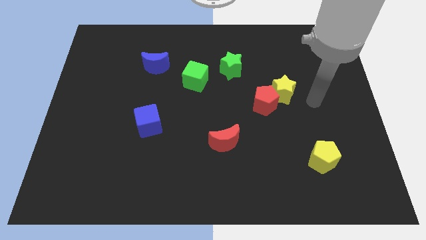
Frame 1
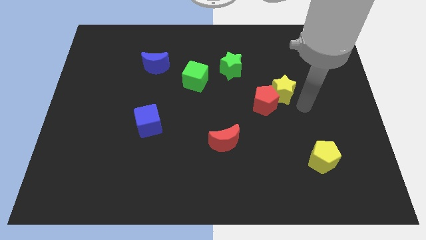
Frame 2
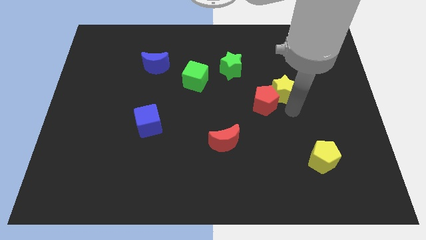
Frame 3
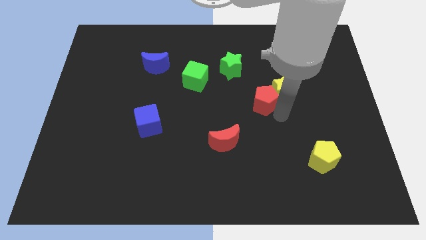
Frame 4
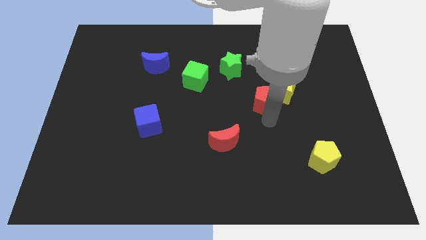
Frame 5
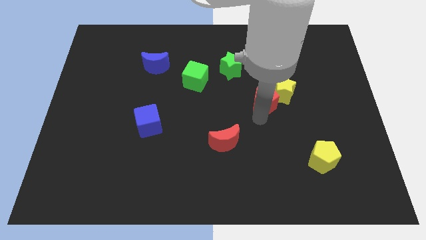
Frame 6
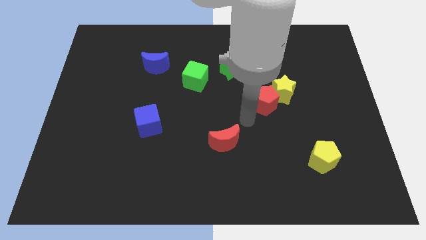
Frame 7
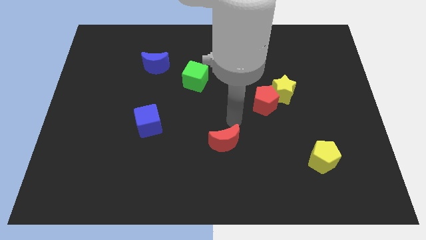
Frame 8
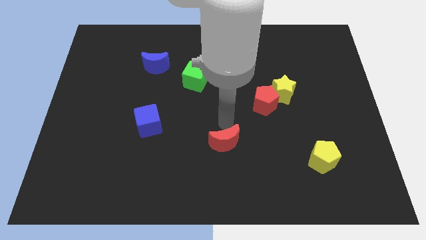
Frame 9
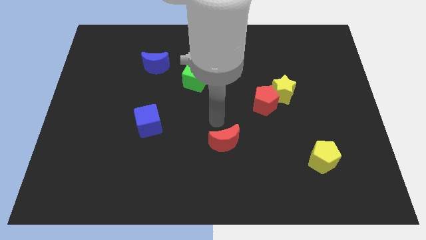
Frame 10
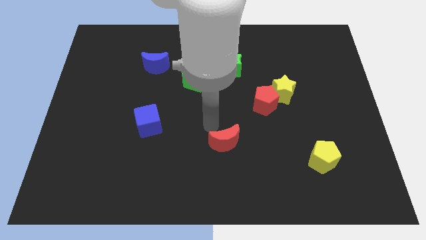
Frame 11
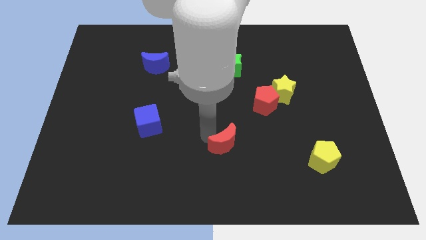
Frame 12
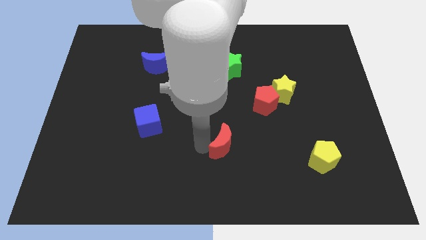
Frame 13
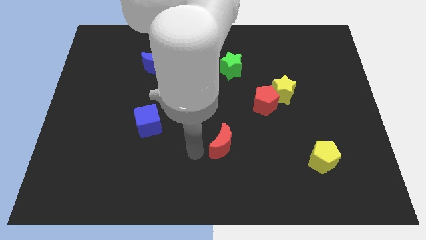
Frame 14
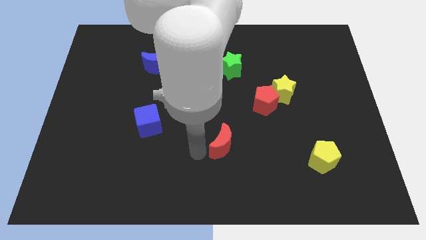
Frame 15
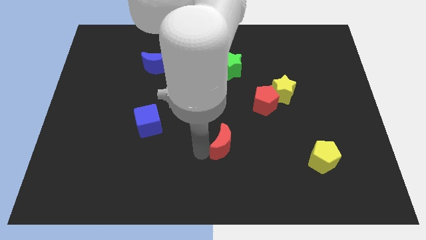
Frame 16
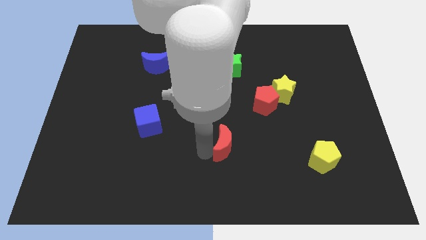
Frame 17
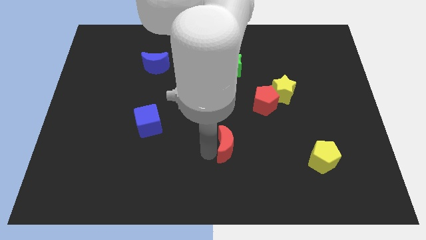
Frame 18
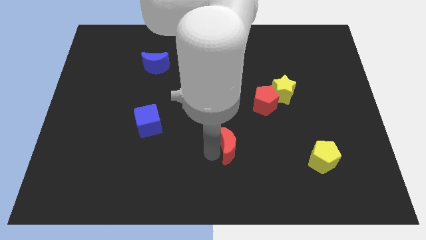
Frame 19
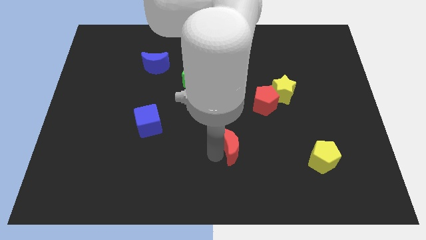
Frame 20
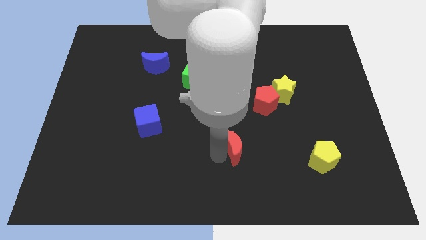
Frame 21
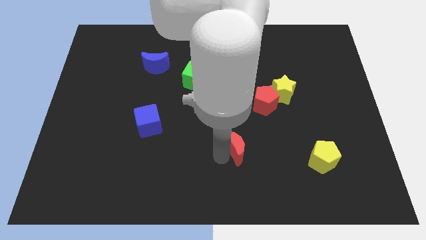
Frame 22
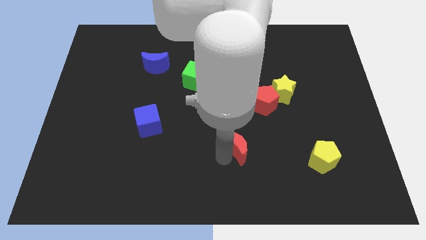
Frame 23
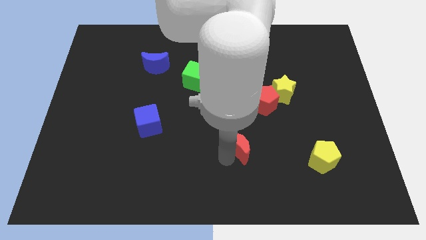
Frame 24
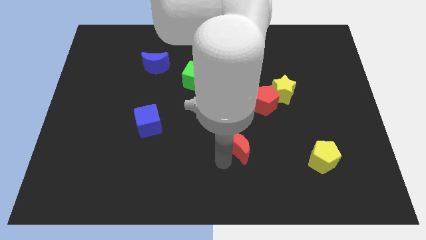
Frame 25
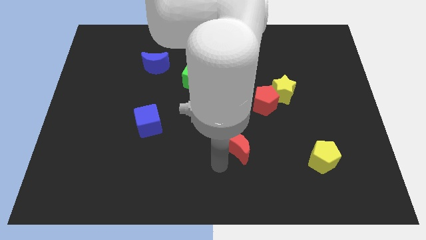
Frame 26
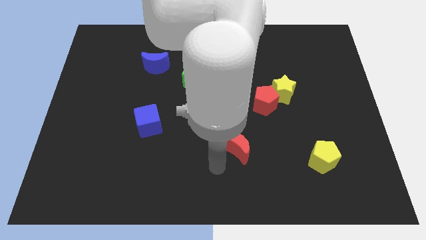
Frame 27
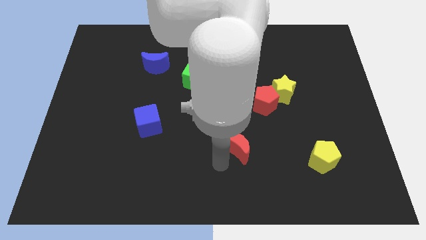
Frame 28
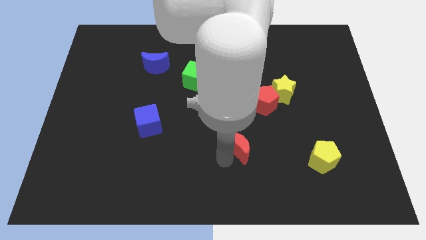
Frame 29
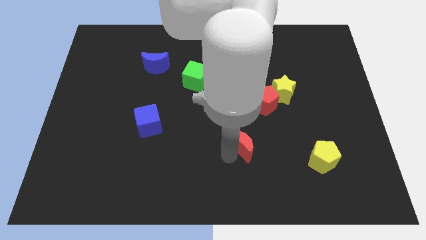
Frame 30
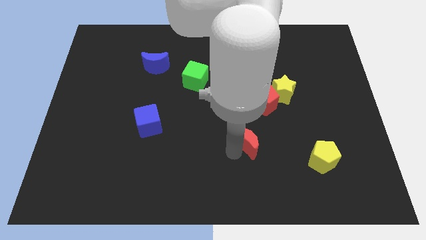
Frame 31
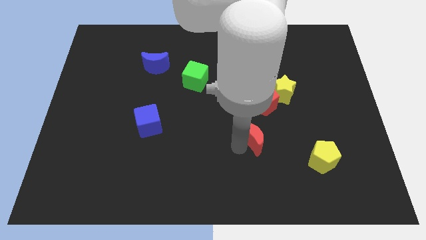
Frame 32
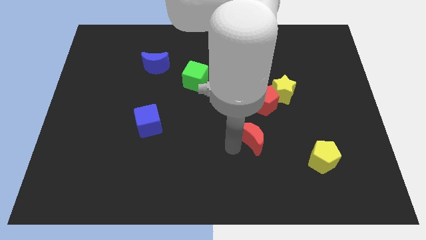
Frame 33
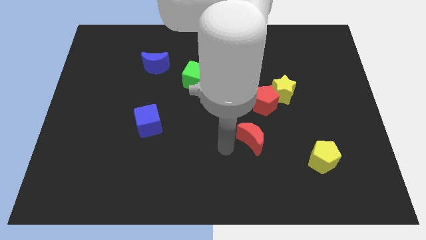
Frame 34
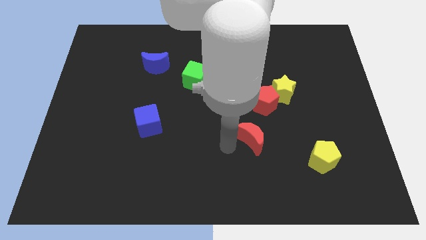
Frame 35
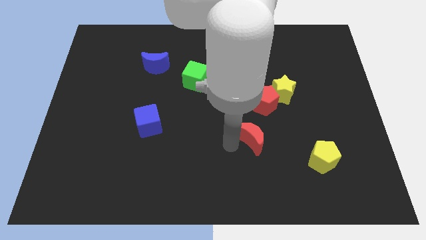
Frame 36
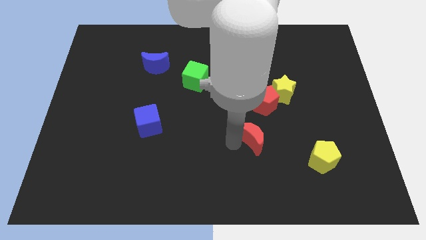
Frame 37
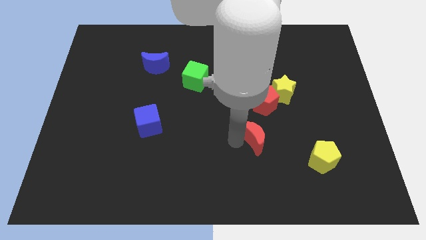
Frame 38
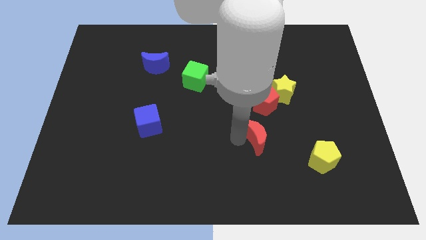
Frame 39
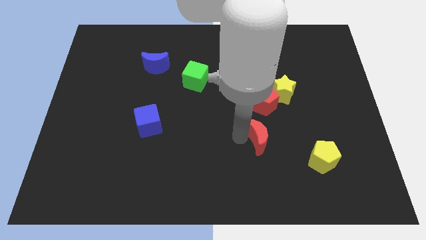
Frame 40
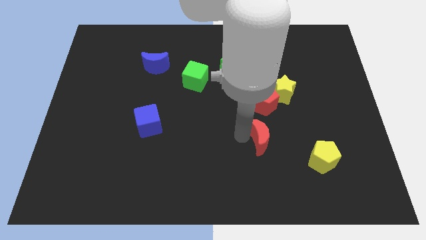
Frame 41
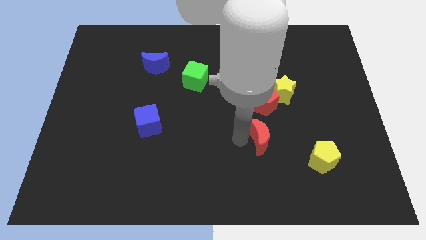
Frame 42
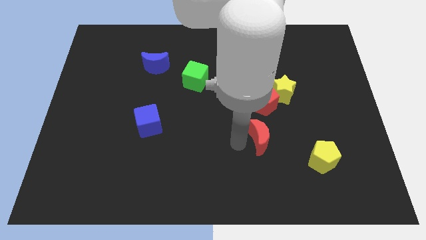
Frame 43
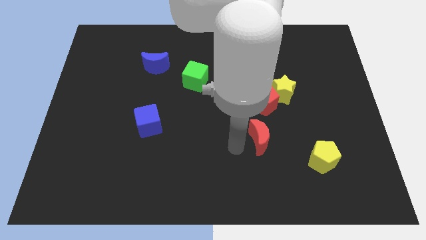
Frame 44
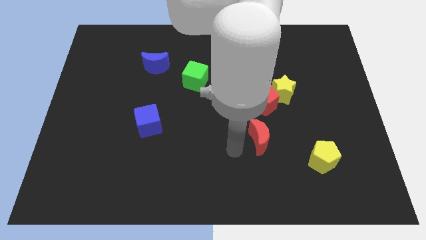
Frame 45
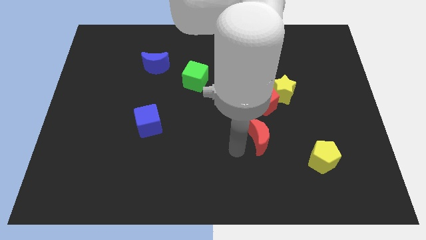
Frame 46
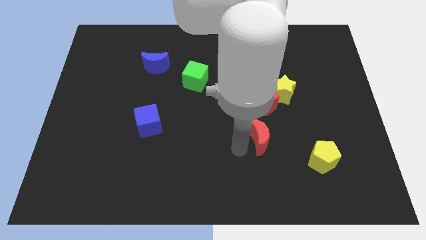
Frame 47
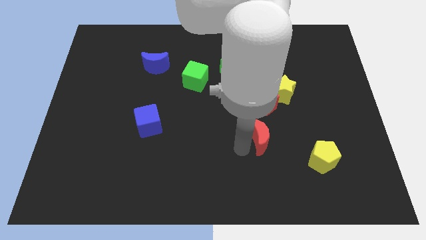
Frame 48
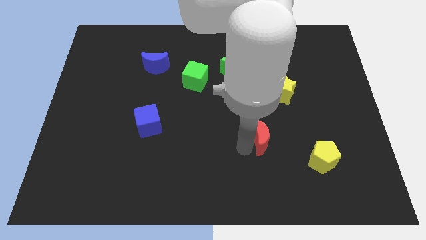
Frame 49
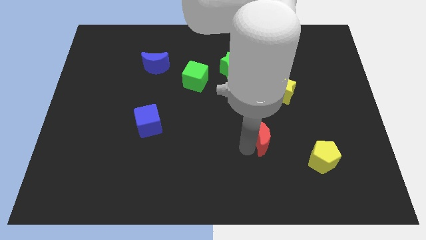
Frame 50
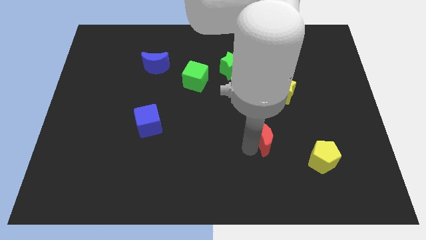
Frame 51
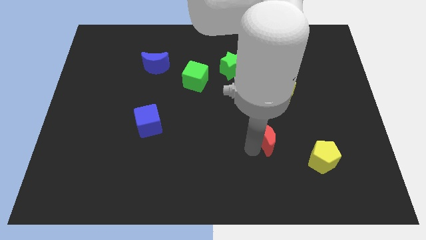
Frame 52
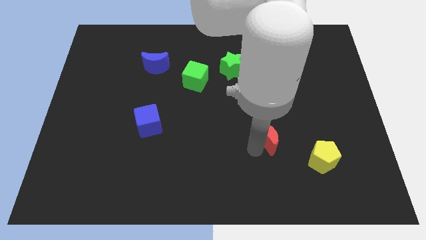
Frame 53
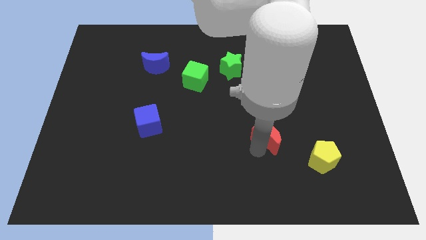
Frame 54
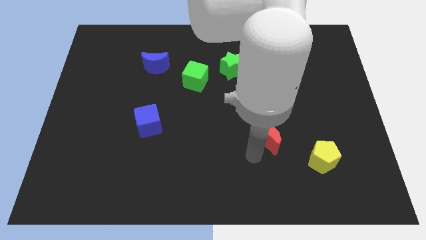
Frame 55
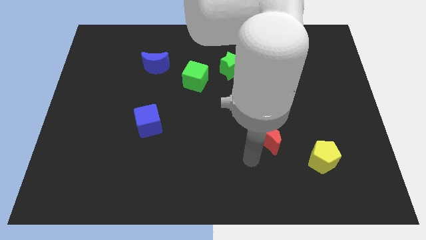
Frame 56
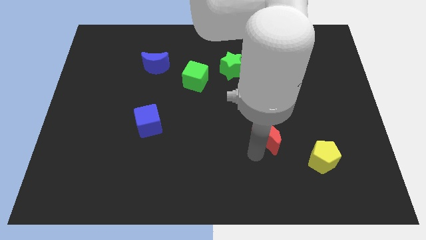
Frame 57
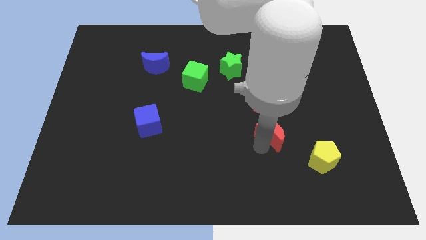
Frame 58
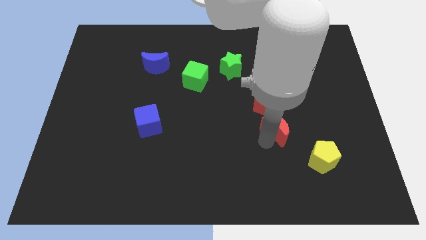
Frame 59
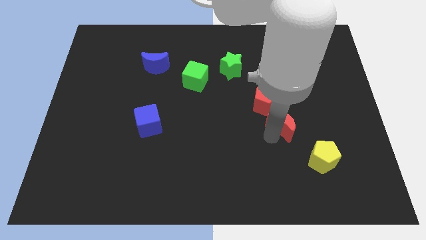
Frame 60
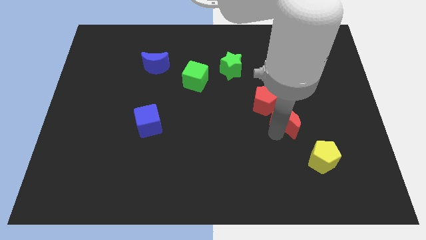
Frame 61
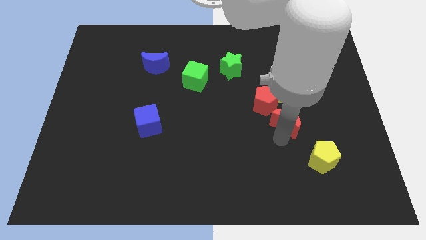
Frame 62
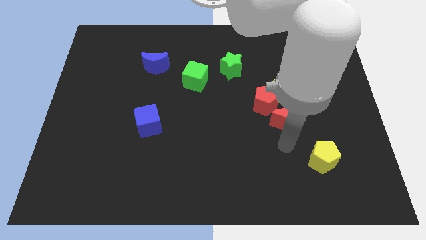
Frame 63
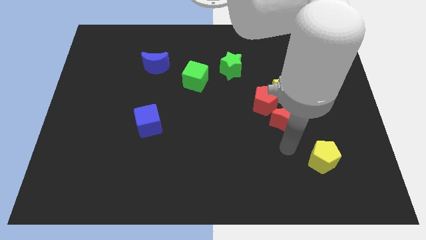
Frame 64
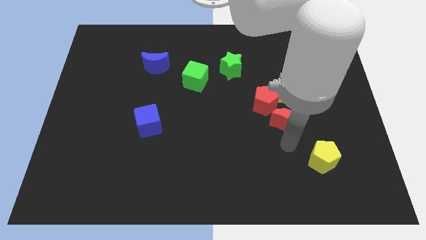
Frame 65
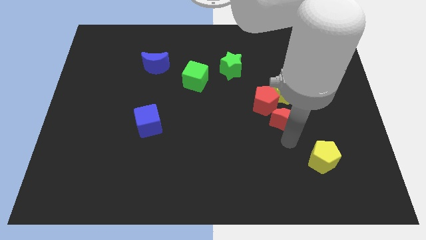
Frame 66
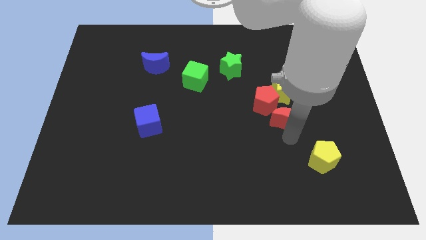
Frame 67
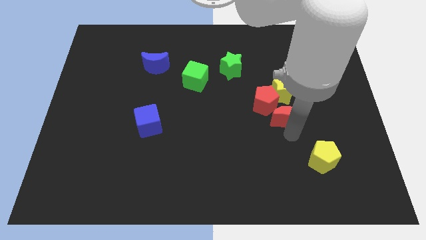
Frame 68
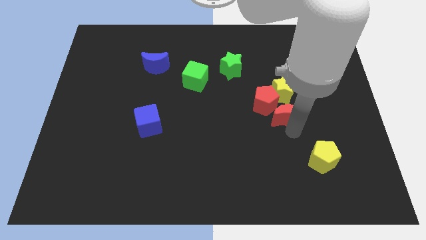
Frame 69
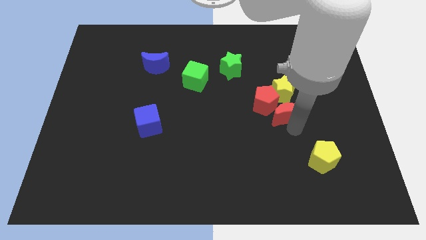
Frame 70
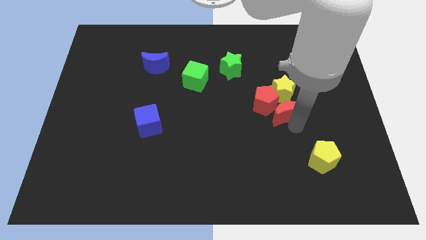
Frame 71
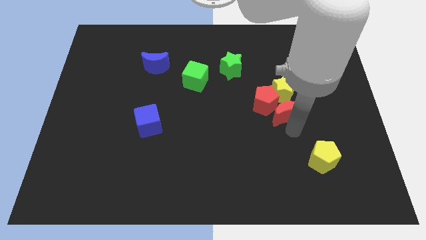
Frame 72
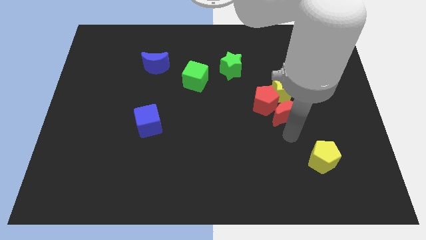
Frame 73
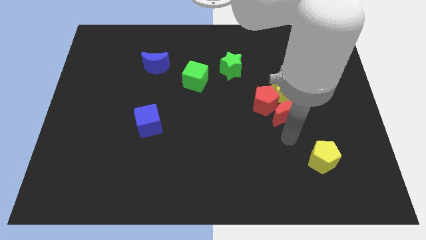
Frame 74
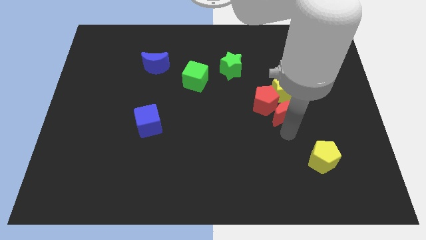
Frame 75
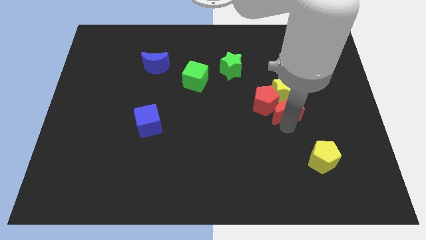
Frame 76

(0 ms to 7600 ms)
push the red moon close to the yellow star
